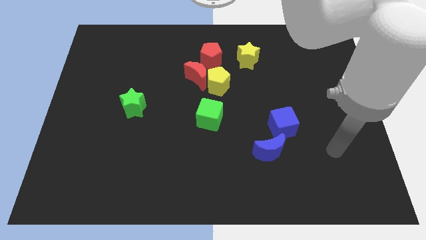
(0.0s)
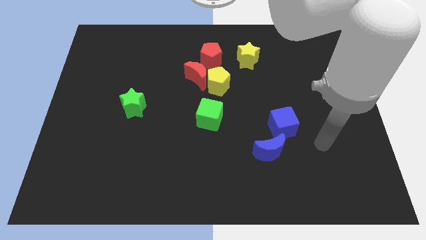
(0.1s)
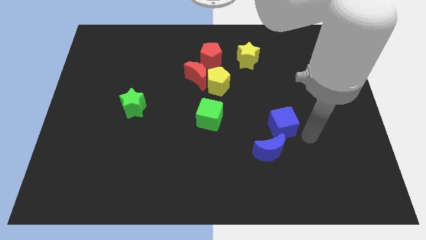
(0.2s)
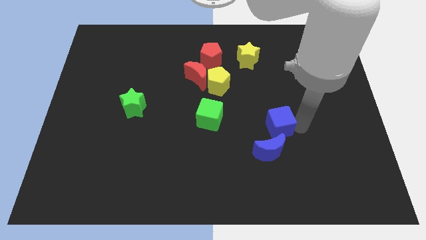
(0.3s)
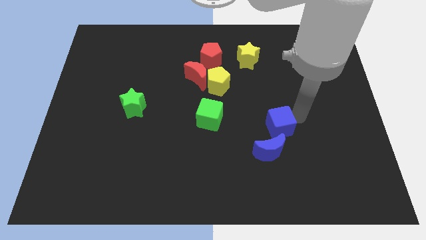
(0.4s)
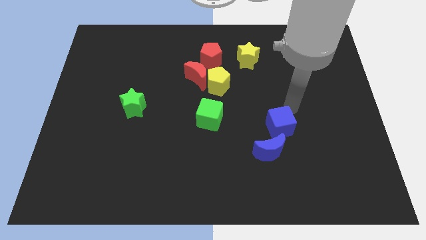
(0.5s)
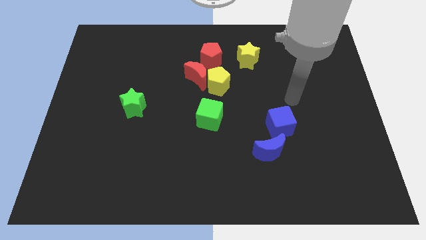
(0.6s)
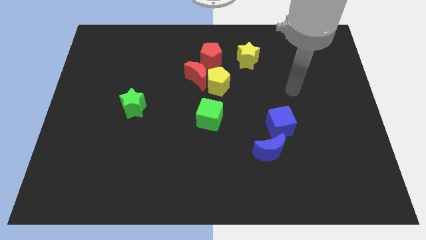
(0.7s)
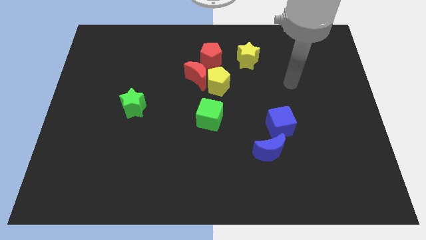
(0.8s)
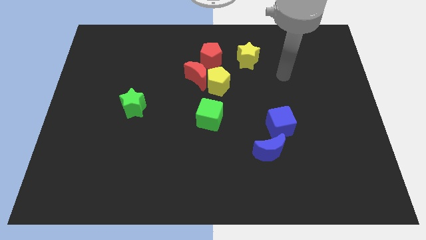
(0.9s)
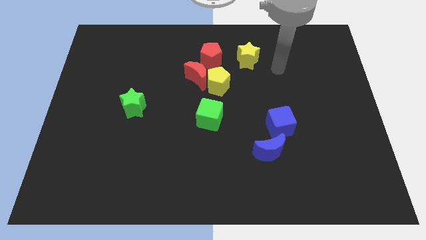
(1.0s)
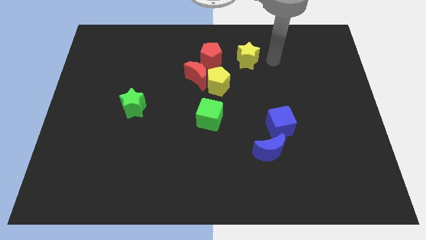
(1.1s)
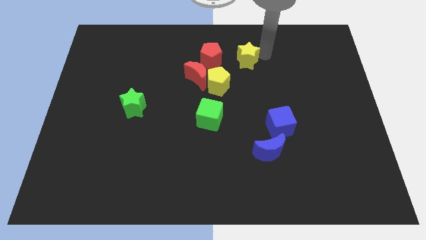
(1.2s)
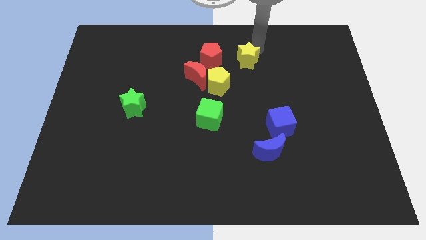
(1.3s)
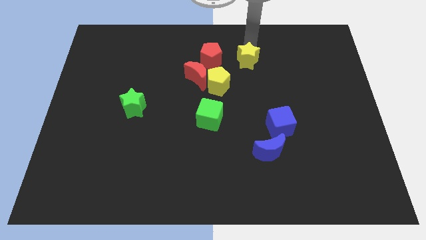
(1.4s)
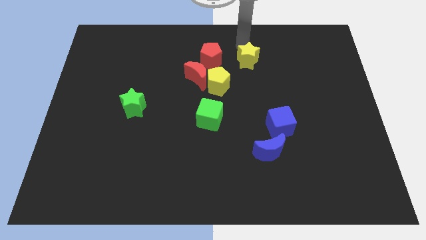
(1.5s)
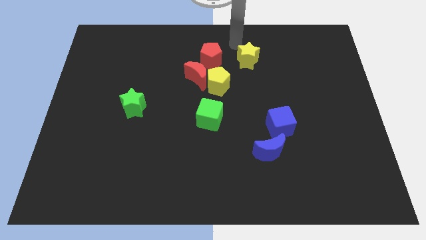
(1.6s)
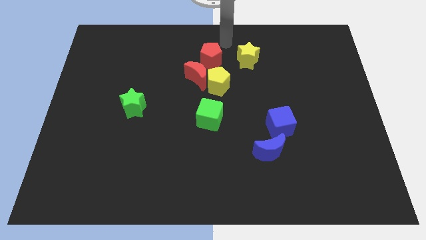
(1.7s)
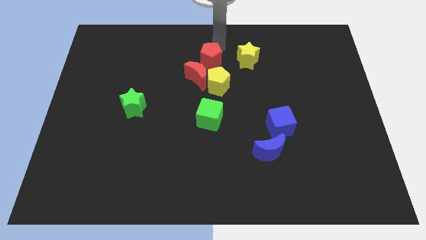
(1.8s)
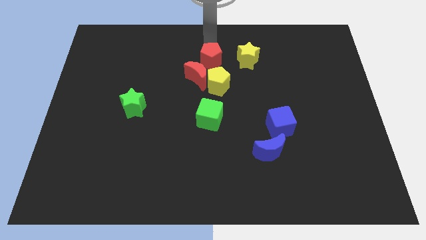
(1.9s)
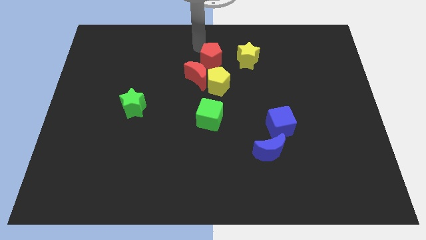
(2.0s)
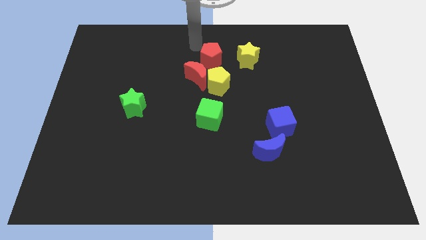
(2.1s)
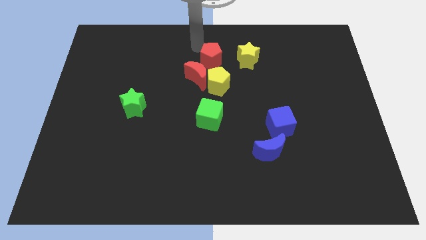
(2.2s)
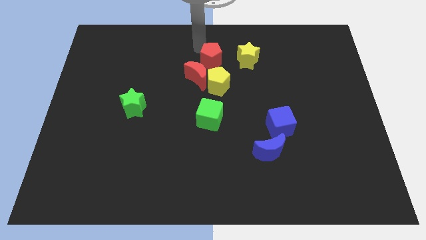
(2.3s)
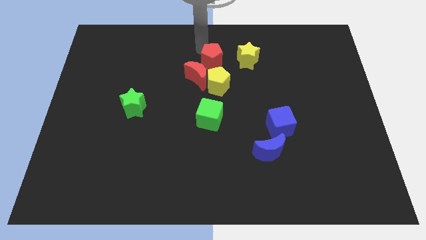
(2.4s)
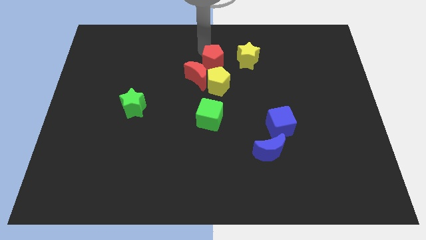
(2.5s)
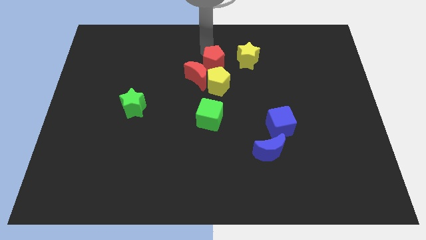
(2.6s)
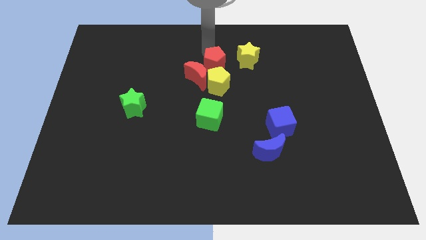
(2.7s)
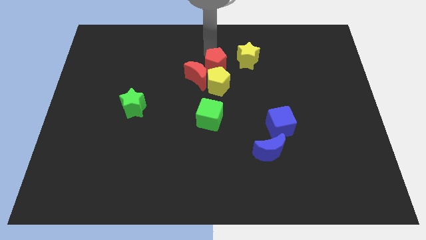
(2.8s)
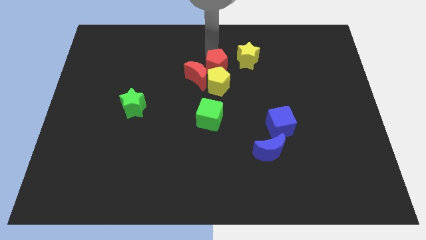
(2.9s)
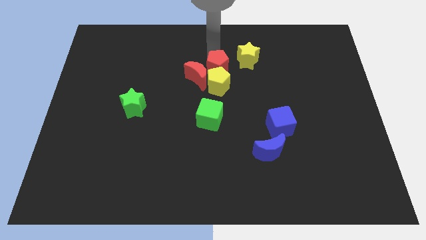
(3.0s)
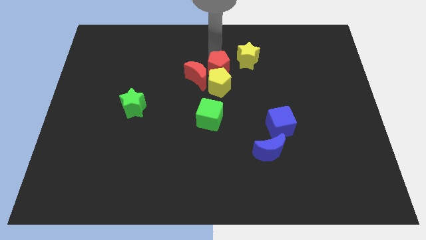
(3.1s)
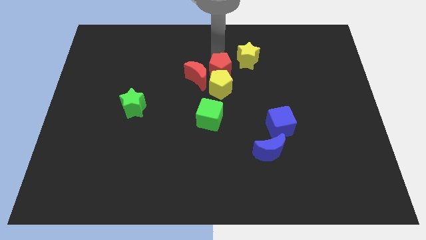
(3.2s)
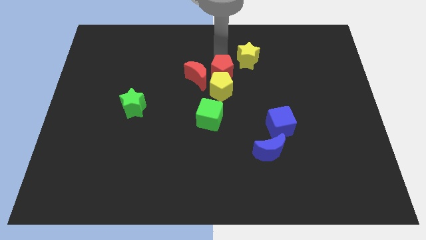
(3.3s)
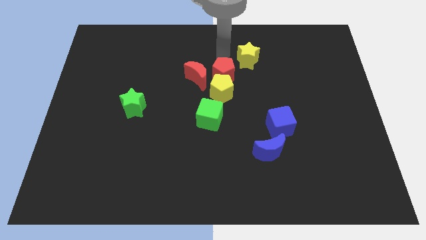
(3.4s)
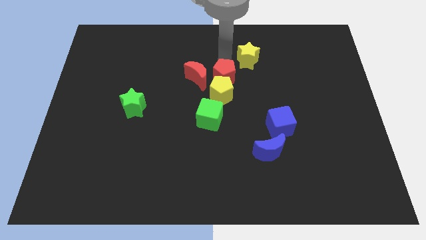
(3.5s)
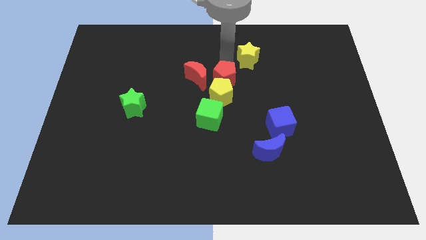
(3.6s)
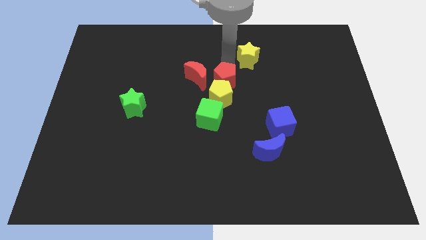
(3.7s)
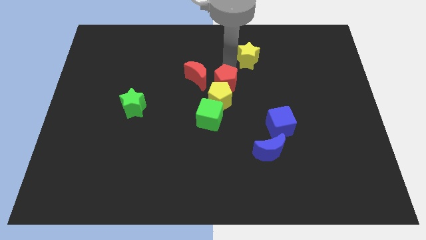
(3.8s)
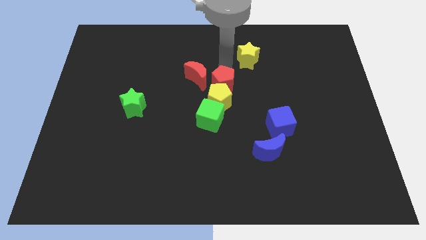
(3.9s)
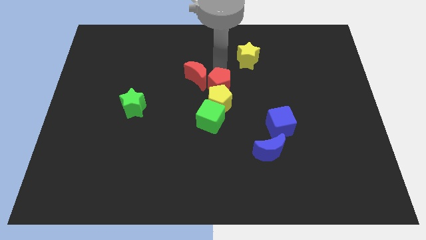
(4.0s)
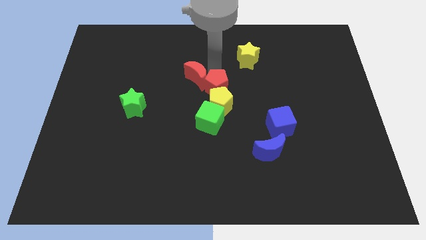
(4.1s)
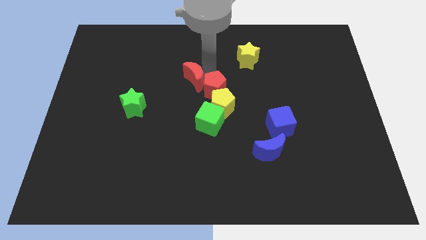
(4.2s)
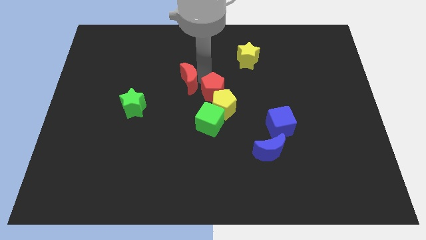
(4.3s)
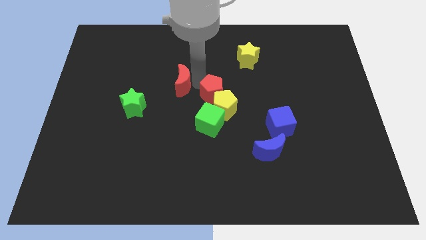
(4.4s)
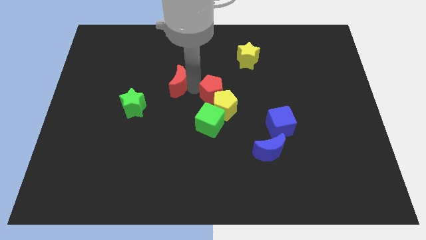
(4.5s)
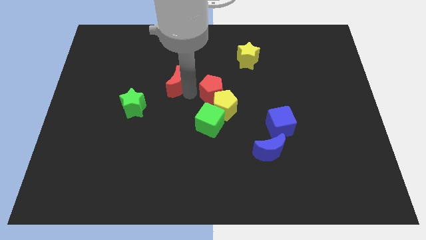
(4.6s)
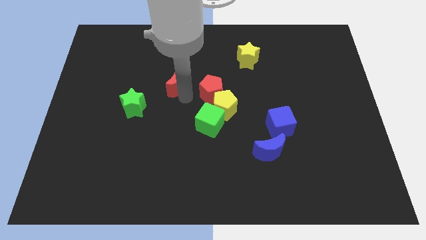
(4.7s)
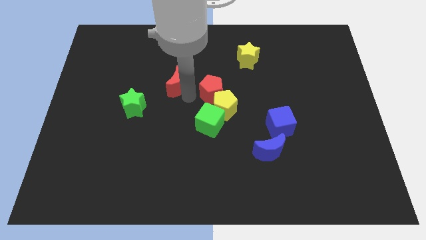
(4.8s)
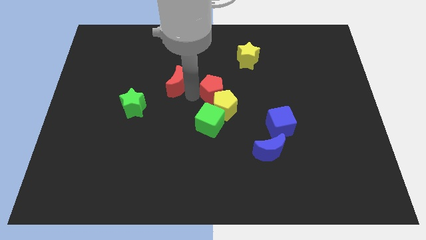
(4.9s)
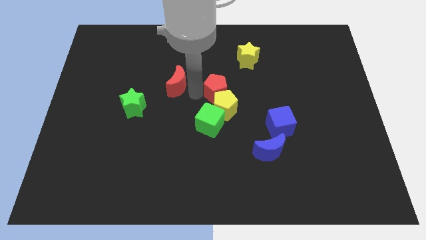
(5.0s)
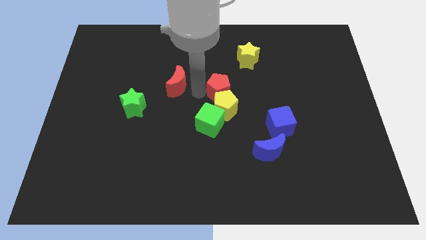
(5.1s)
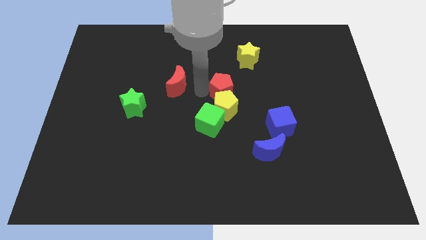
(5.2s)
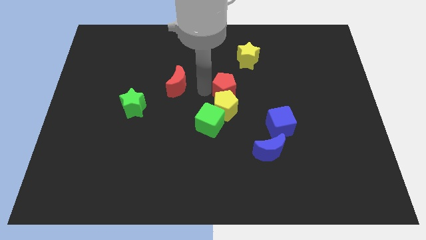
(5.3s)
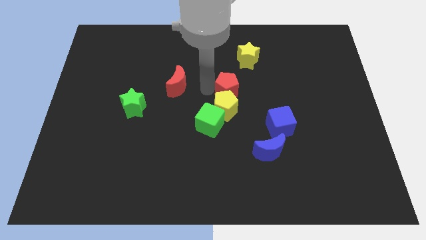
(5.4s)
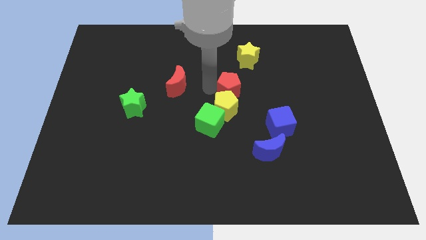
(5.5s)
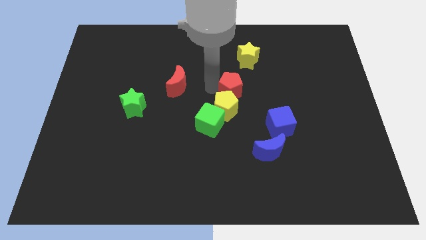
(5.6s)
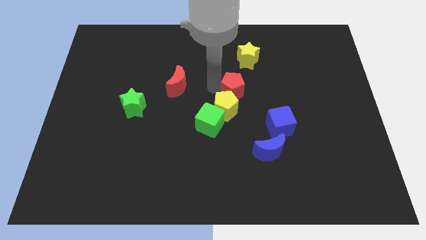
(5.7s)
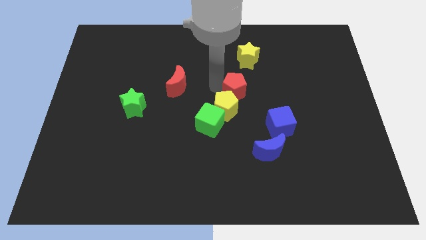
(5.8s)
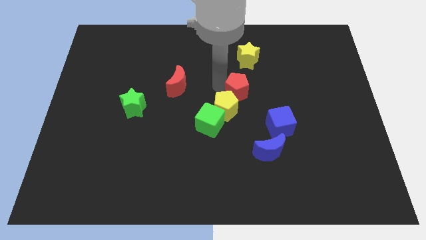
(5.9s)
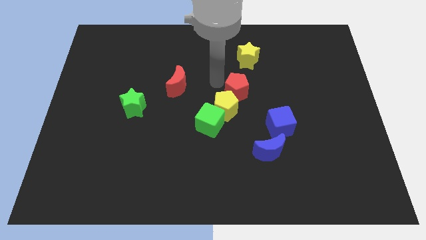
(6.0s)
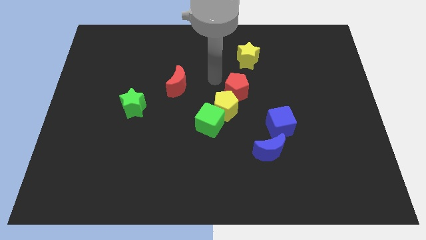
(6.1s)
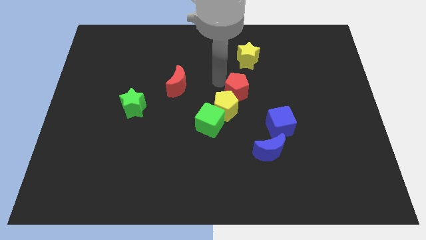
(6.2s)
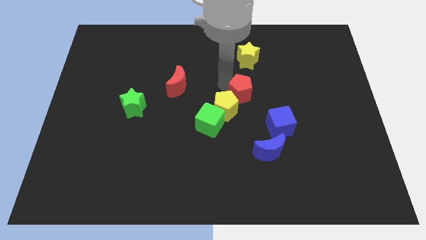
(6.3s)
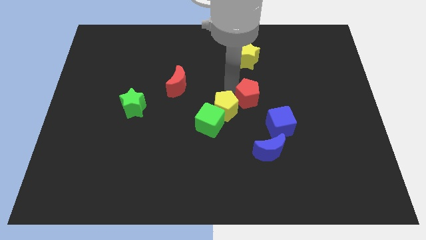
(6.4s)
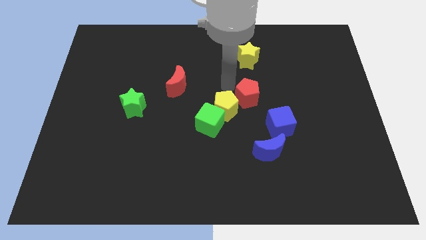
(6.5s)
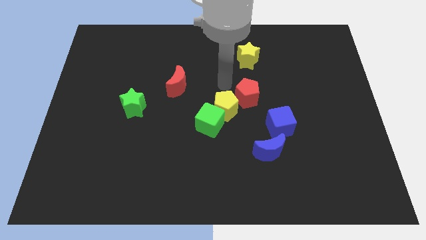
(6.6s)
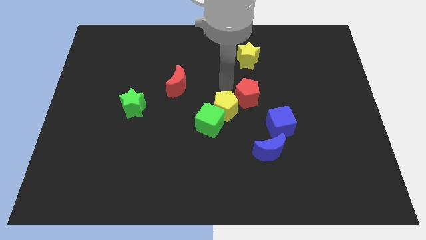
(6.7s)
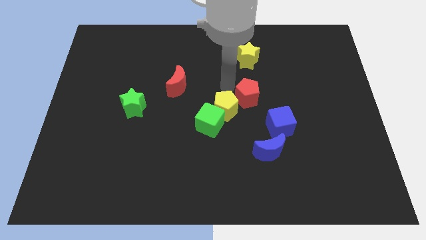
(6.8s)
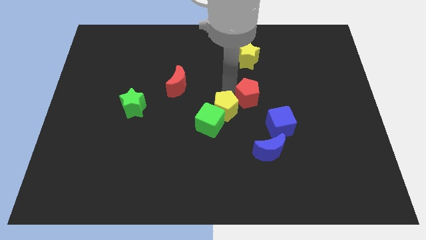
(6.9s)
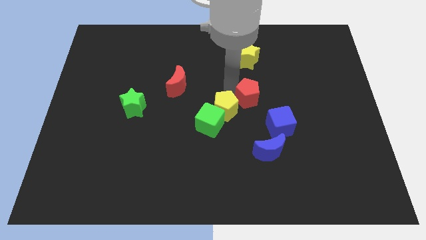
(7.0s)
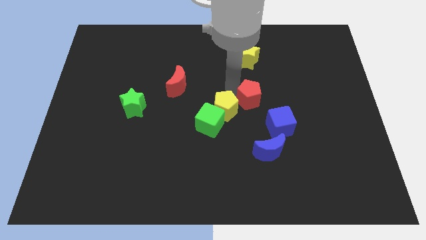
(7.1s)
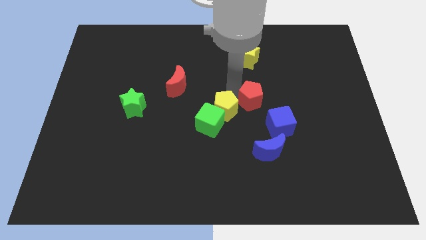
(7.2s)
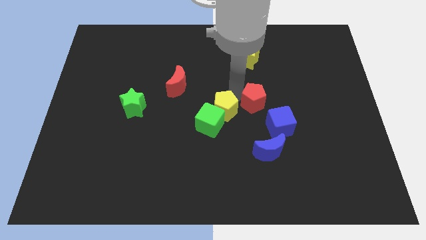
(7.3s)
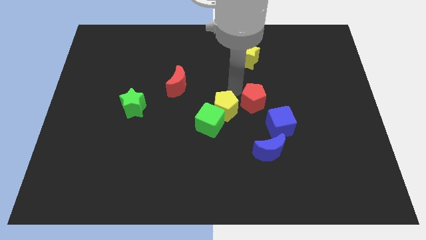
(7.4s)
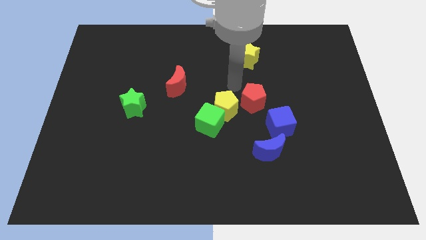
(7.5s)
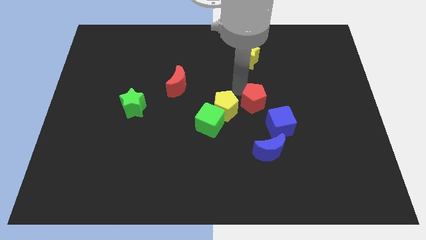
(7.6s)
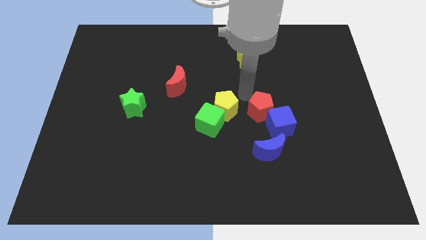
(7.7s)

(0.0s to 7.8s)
put the red pentagon next to the blue cube
